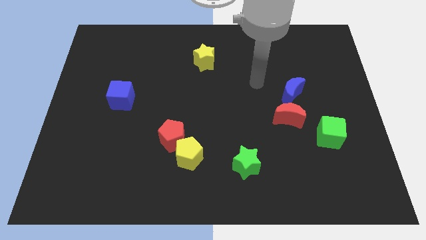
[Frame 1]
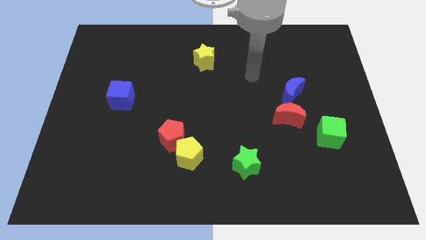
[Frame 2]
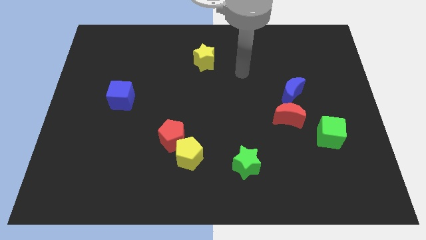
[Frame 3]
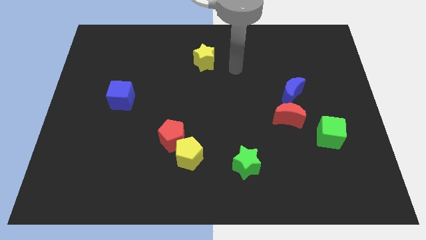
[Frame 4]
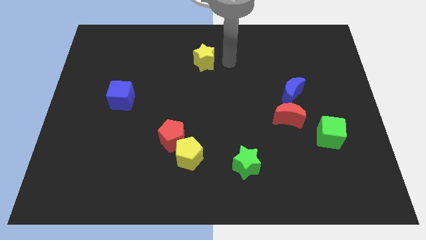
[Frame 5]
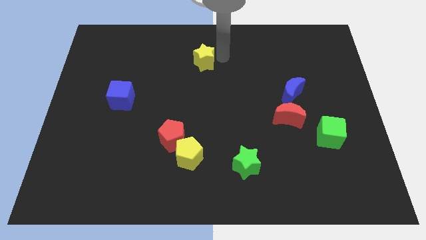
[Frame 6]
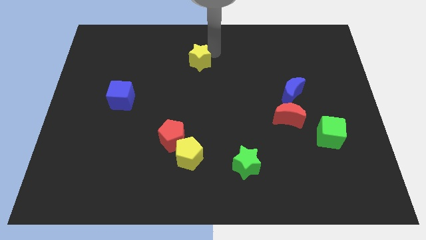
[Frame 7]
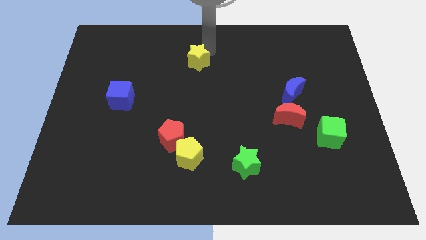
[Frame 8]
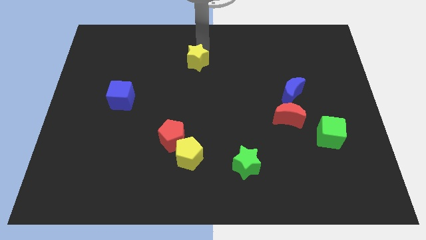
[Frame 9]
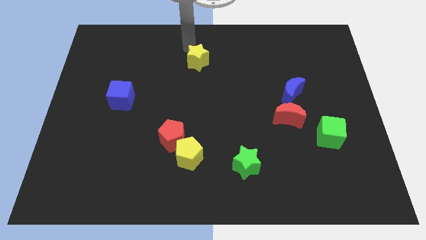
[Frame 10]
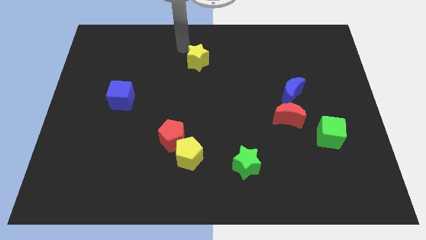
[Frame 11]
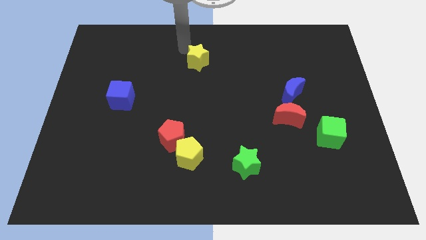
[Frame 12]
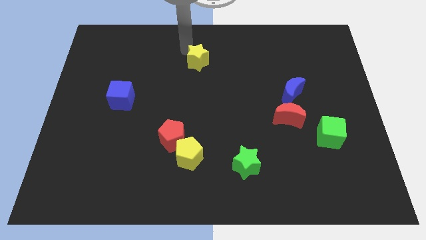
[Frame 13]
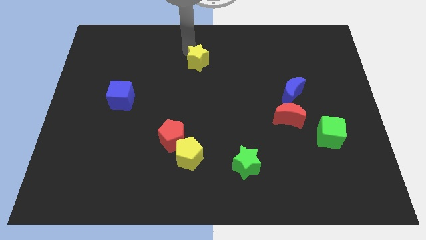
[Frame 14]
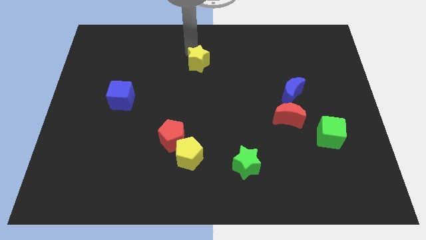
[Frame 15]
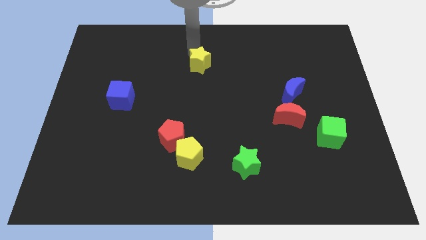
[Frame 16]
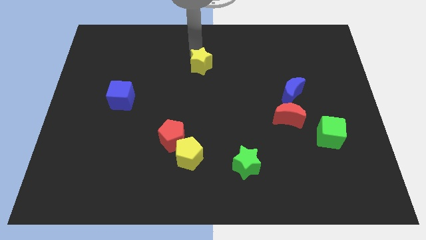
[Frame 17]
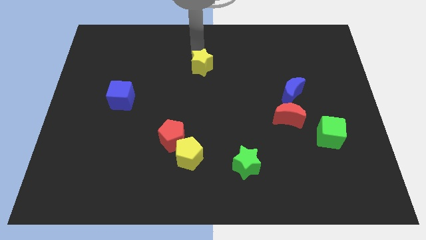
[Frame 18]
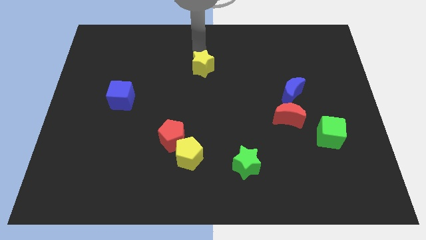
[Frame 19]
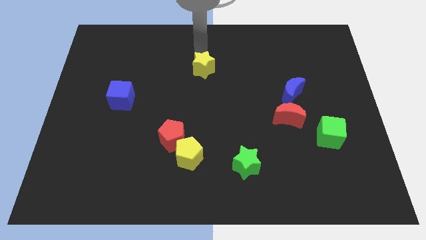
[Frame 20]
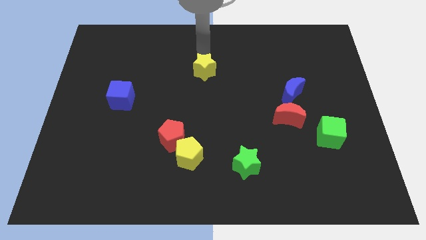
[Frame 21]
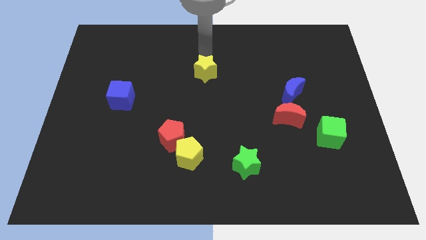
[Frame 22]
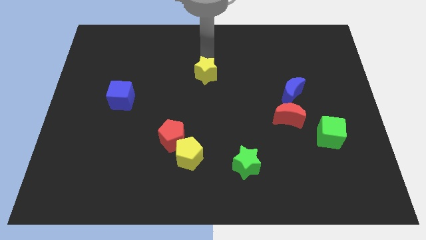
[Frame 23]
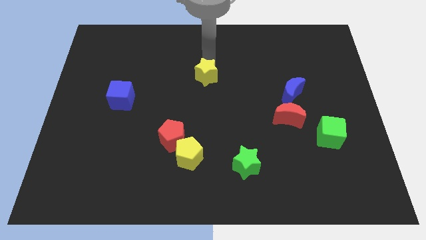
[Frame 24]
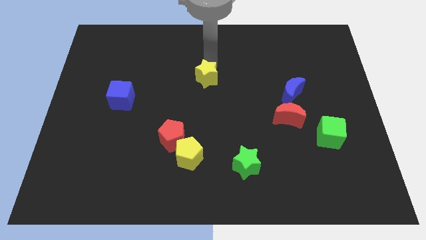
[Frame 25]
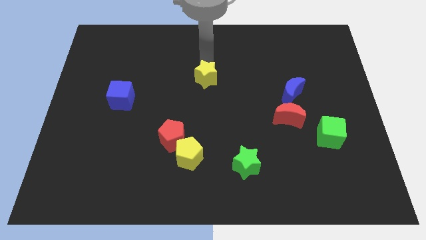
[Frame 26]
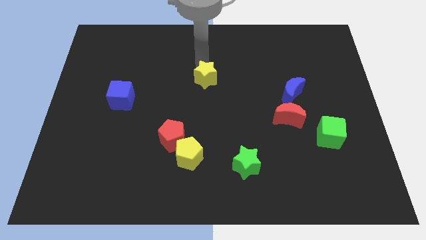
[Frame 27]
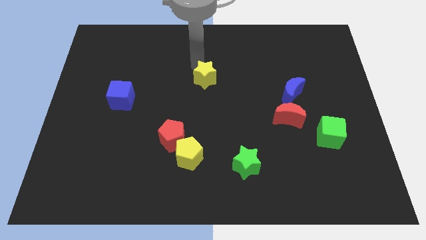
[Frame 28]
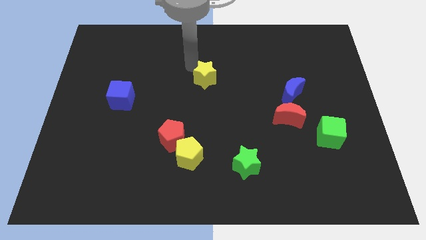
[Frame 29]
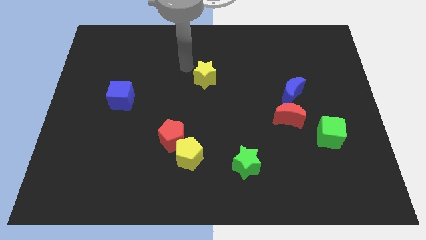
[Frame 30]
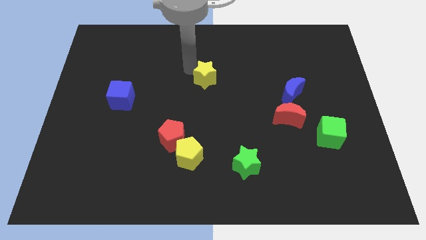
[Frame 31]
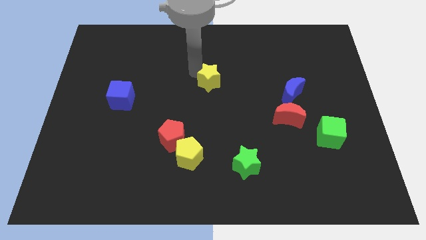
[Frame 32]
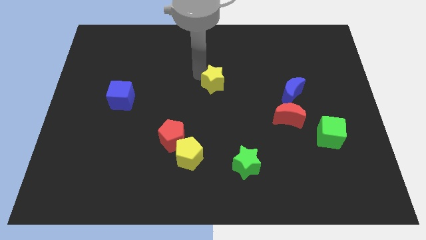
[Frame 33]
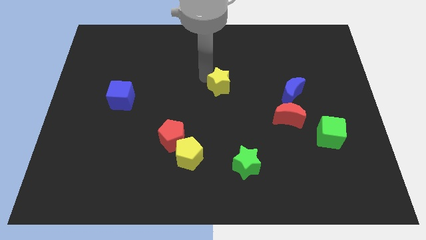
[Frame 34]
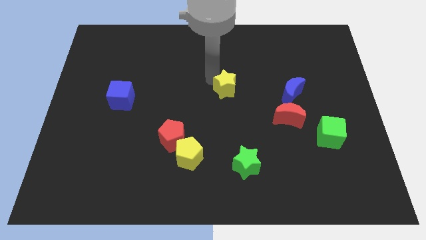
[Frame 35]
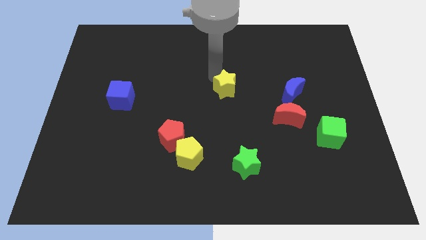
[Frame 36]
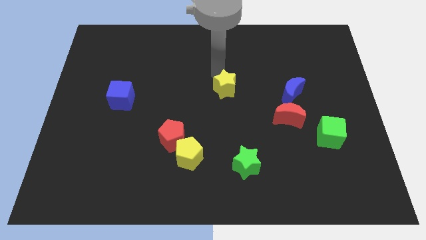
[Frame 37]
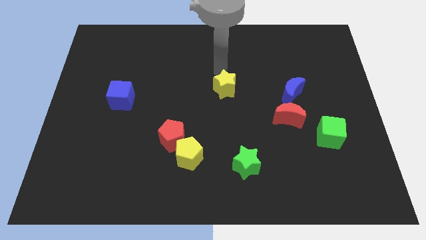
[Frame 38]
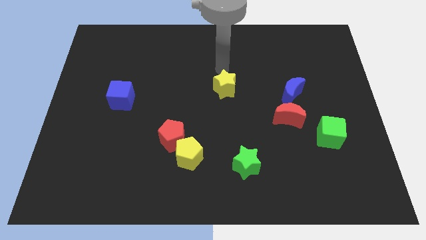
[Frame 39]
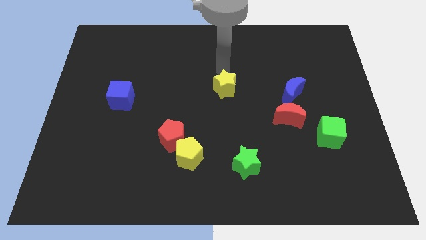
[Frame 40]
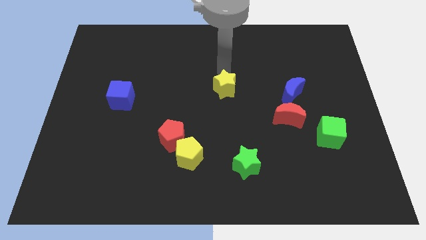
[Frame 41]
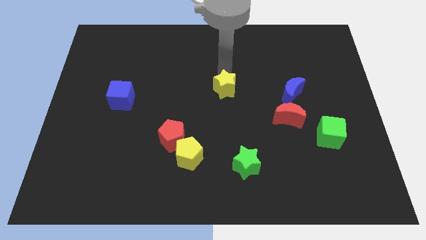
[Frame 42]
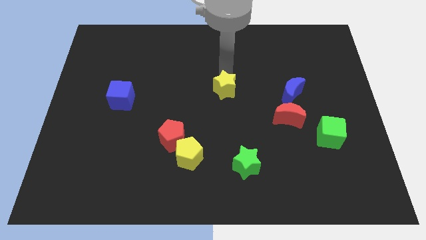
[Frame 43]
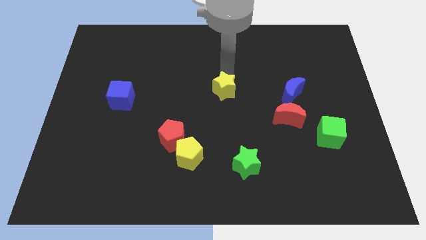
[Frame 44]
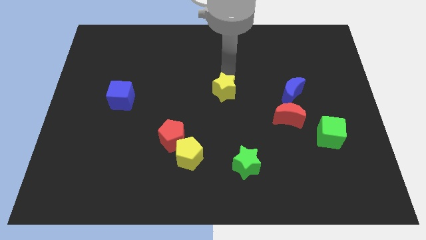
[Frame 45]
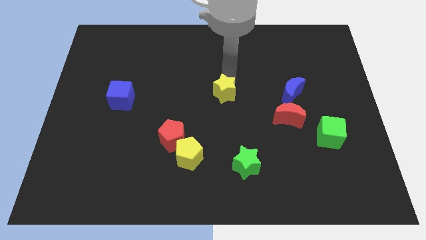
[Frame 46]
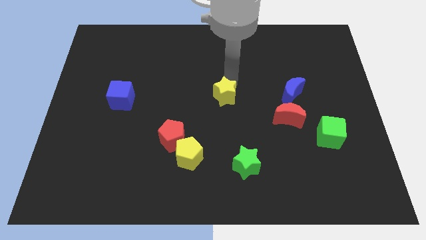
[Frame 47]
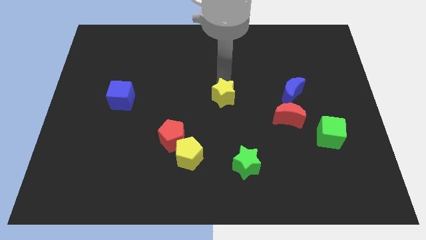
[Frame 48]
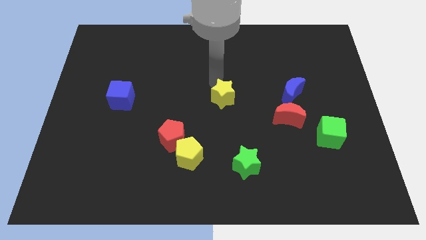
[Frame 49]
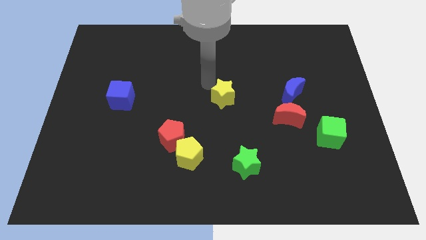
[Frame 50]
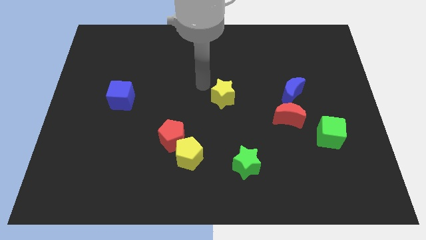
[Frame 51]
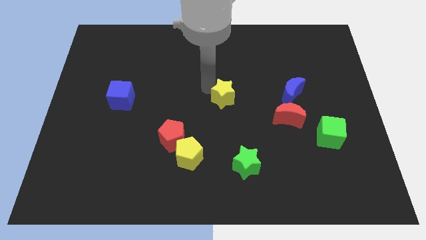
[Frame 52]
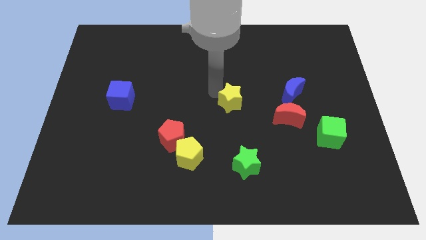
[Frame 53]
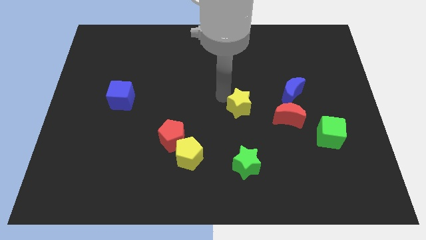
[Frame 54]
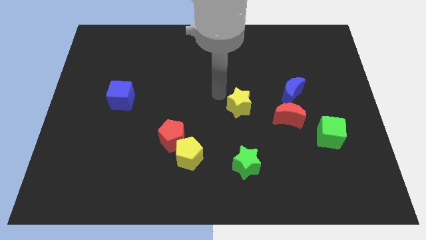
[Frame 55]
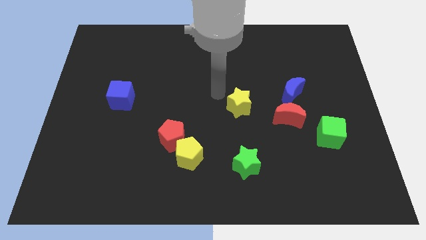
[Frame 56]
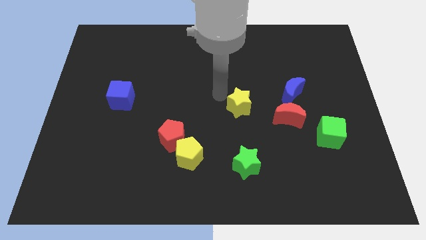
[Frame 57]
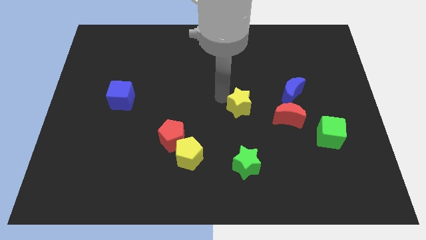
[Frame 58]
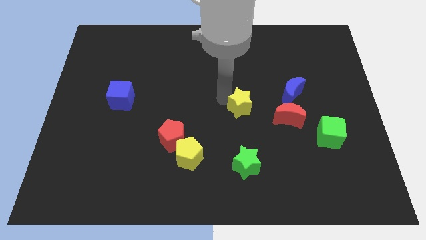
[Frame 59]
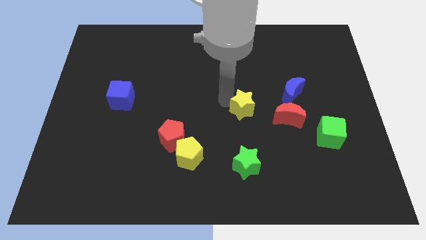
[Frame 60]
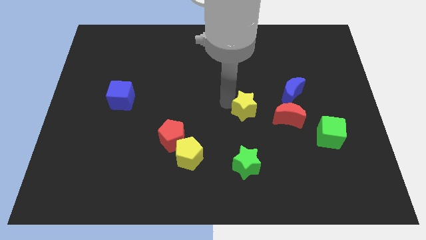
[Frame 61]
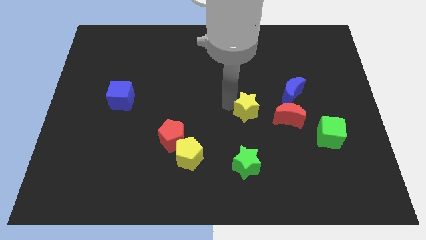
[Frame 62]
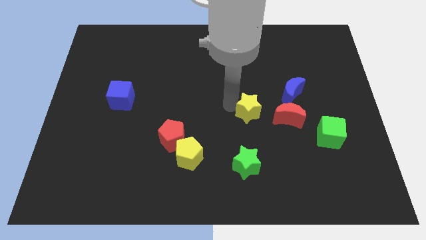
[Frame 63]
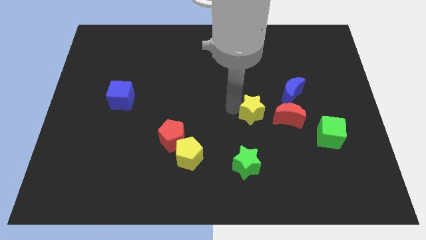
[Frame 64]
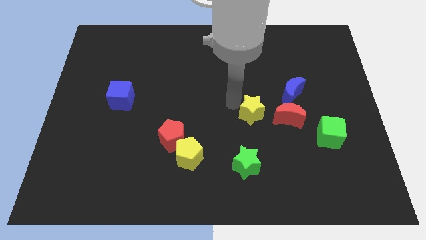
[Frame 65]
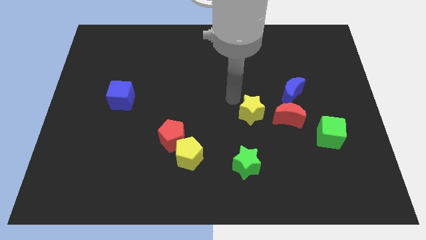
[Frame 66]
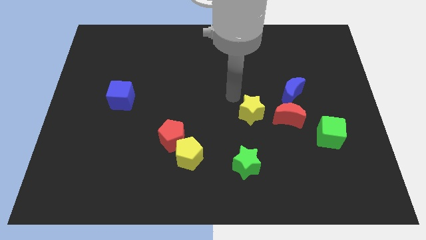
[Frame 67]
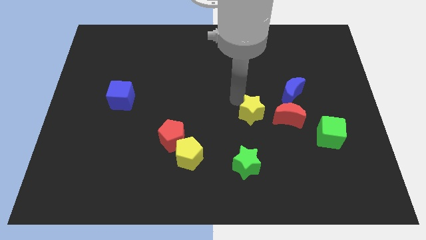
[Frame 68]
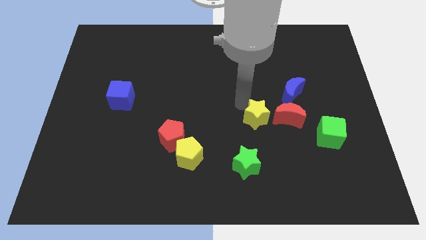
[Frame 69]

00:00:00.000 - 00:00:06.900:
slide the yellow star diagonally down and right

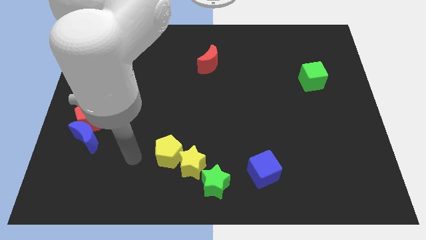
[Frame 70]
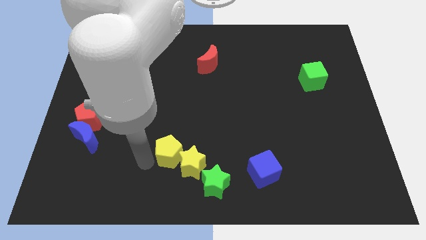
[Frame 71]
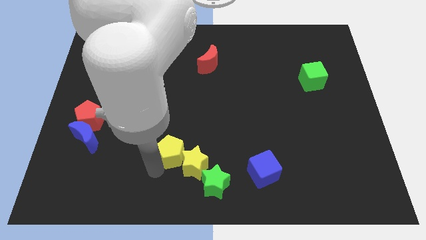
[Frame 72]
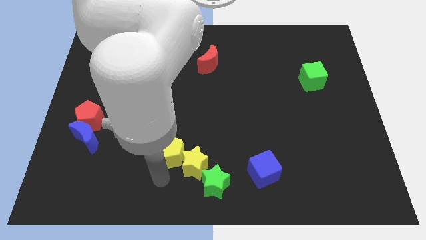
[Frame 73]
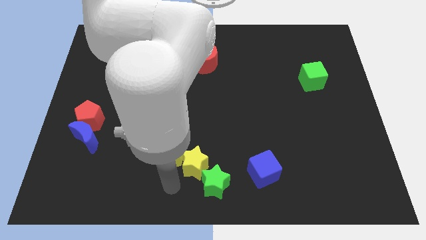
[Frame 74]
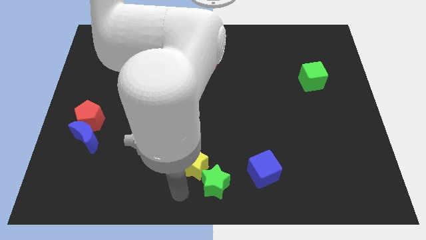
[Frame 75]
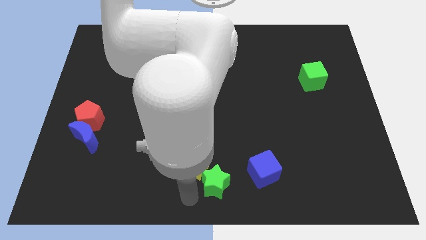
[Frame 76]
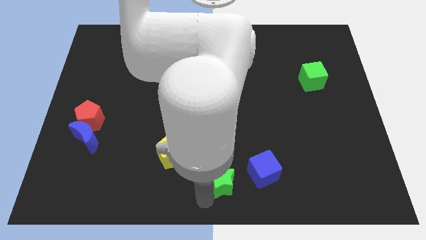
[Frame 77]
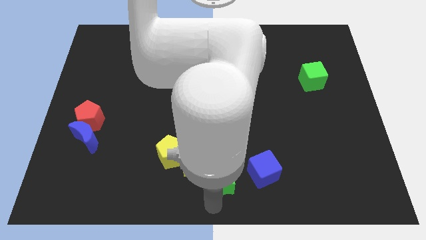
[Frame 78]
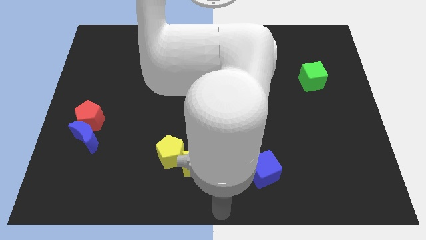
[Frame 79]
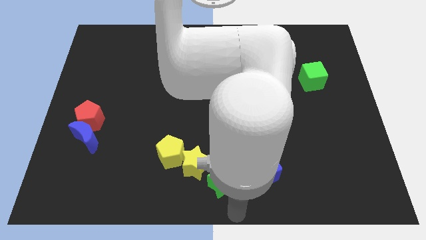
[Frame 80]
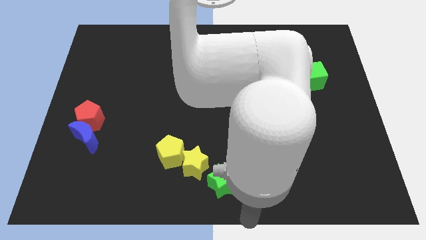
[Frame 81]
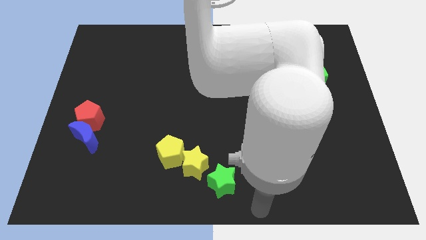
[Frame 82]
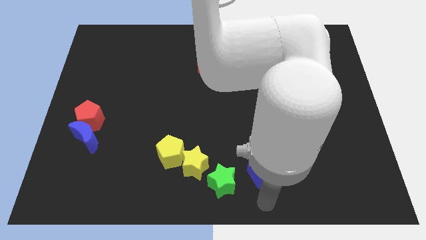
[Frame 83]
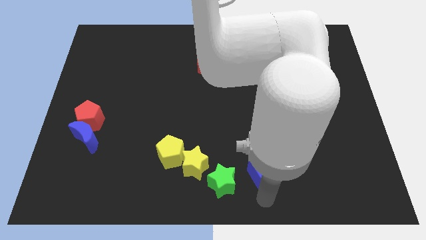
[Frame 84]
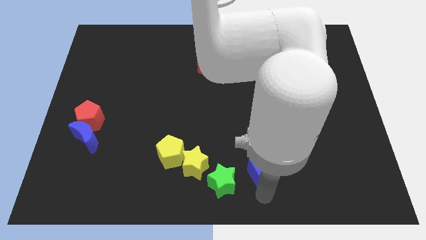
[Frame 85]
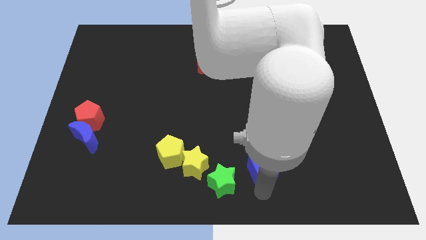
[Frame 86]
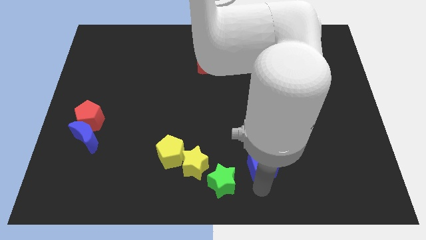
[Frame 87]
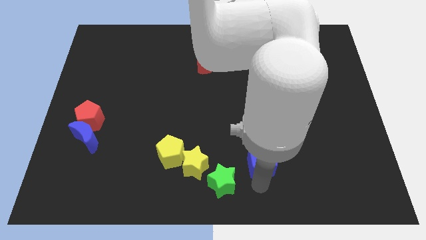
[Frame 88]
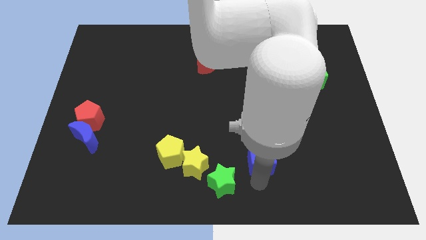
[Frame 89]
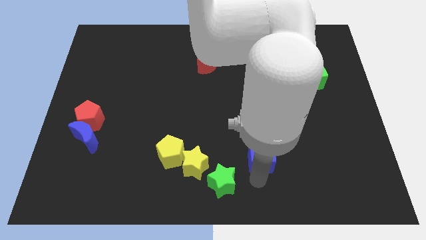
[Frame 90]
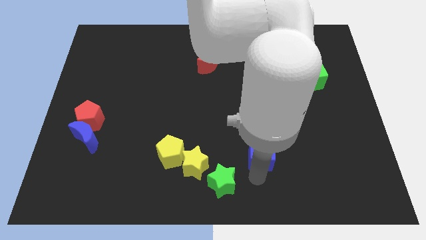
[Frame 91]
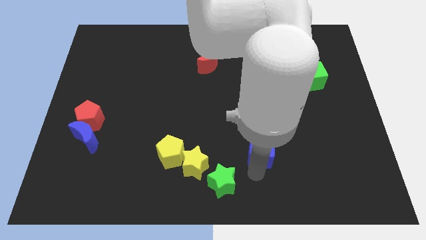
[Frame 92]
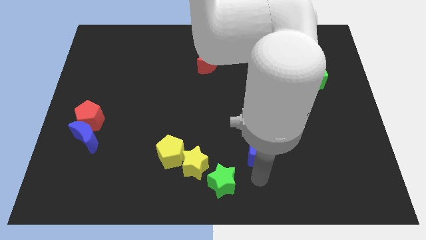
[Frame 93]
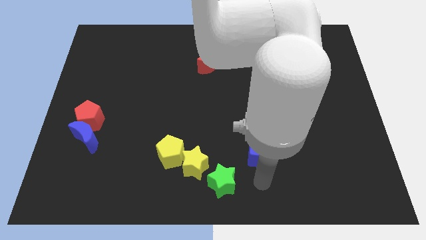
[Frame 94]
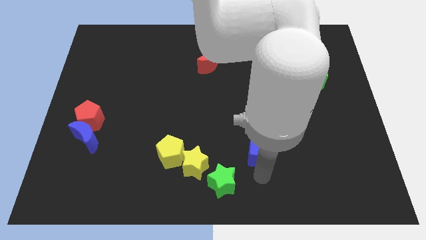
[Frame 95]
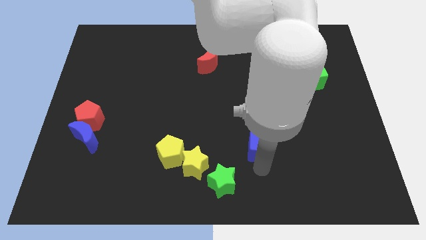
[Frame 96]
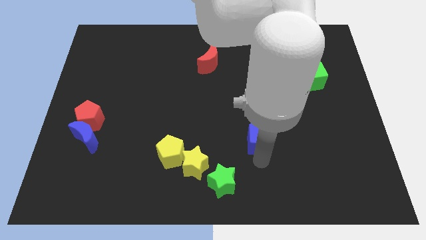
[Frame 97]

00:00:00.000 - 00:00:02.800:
slightly move the blue cube upwards
